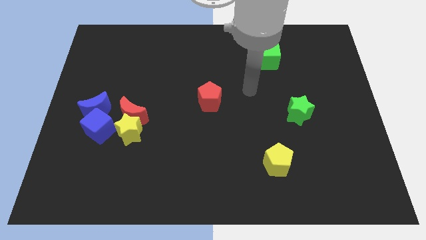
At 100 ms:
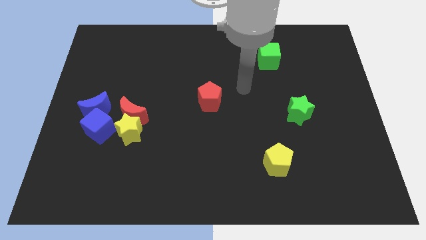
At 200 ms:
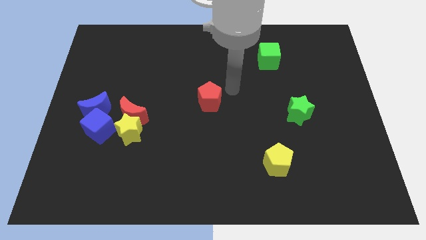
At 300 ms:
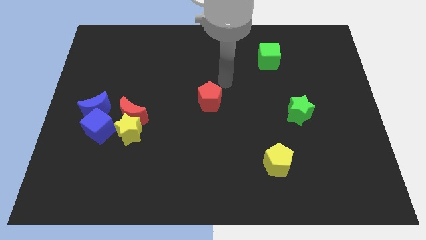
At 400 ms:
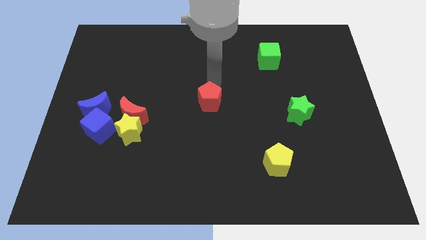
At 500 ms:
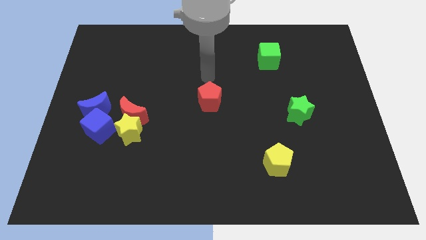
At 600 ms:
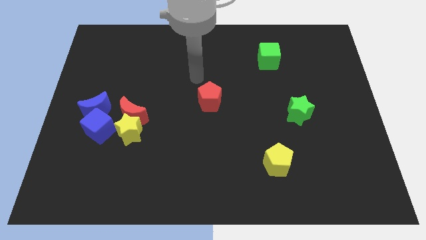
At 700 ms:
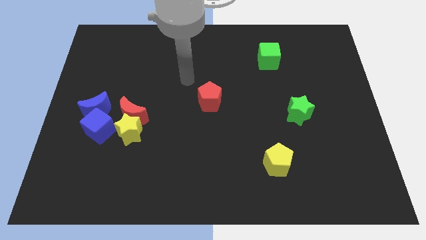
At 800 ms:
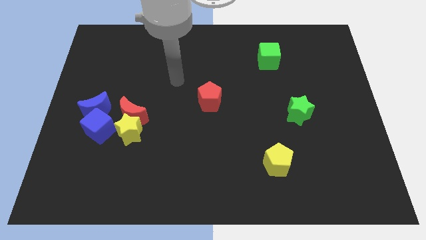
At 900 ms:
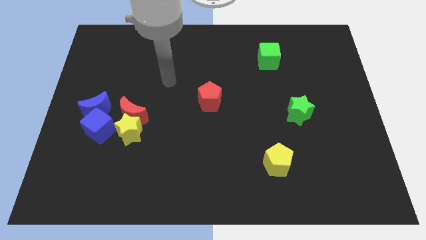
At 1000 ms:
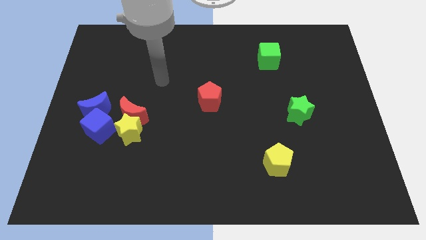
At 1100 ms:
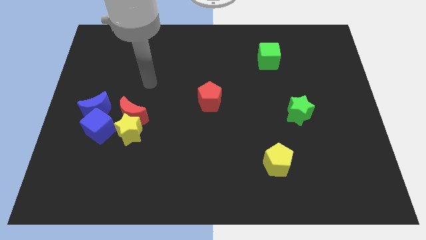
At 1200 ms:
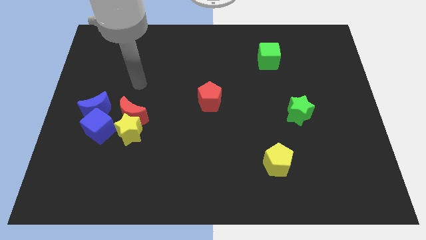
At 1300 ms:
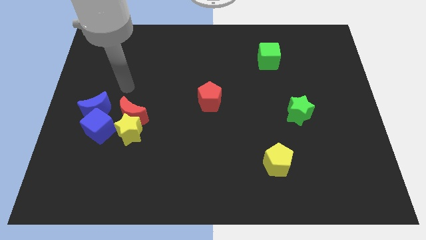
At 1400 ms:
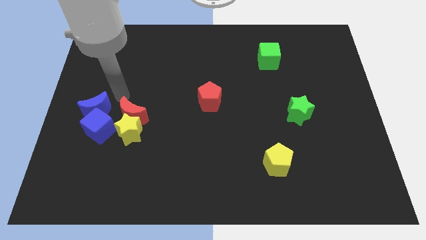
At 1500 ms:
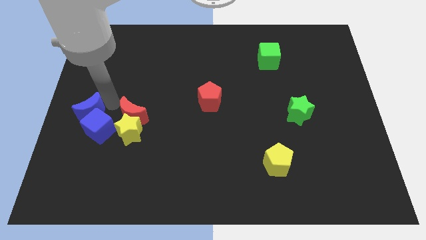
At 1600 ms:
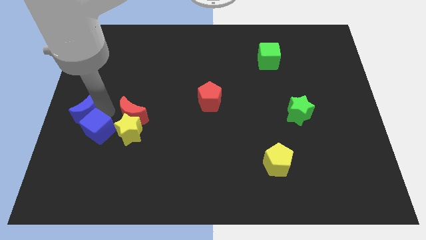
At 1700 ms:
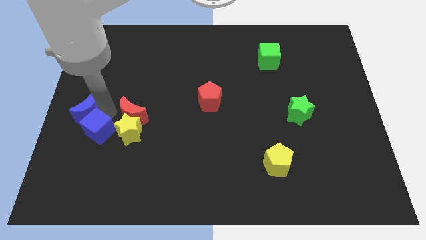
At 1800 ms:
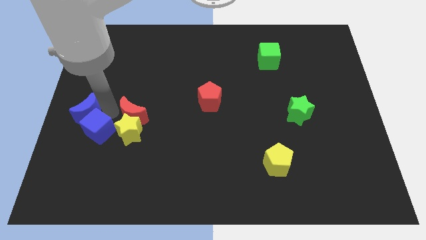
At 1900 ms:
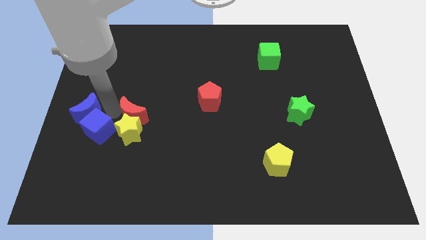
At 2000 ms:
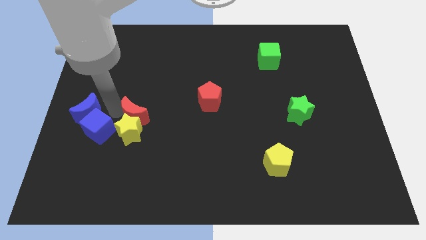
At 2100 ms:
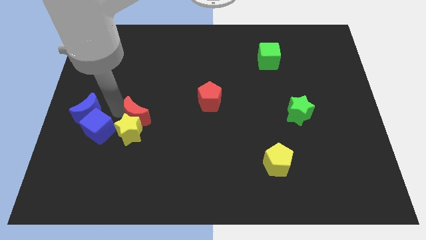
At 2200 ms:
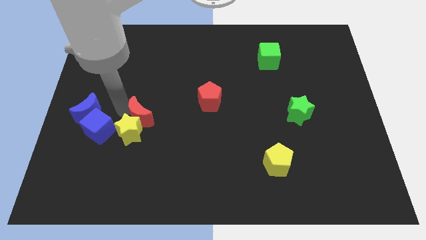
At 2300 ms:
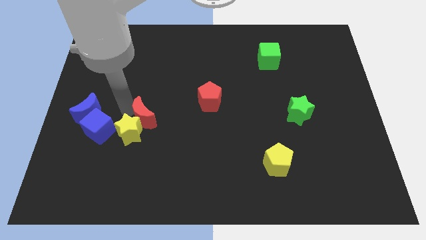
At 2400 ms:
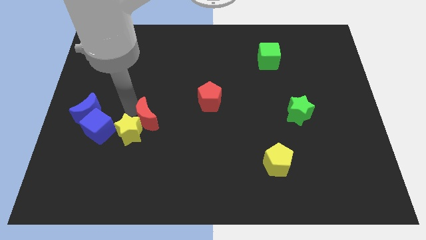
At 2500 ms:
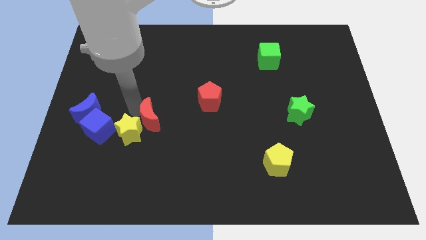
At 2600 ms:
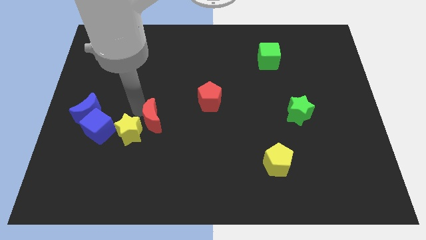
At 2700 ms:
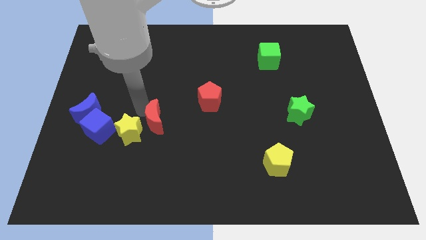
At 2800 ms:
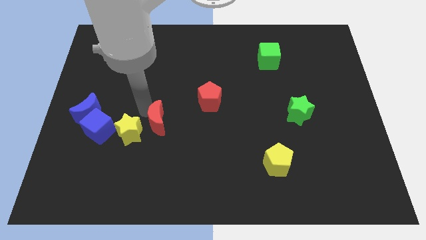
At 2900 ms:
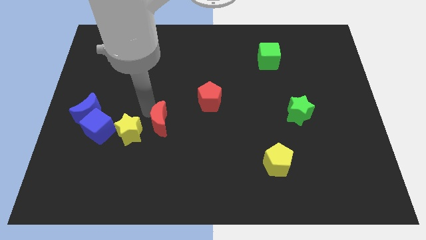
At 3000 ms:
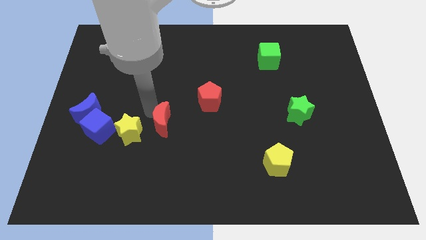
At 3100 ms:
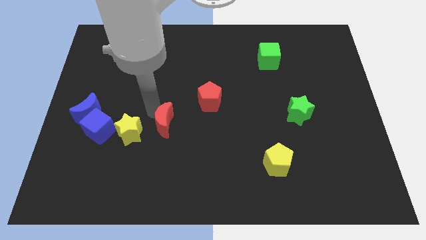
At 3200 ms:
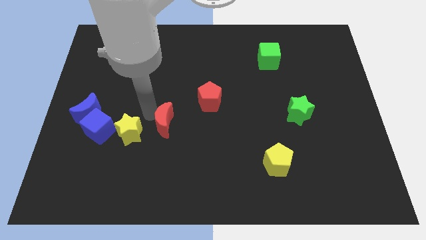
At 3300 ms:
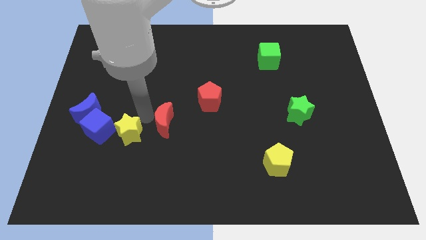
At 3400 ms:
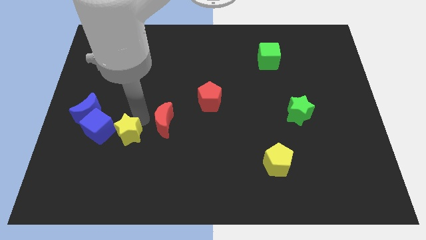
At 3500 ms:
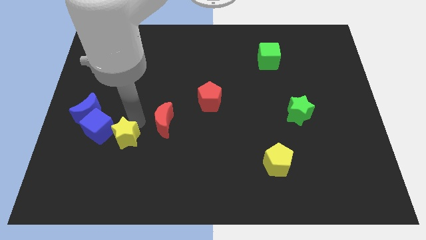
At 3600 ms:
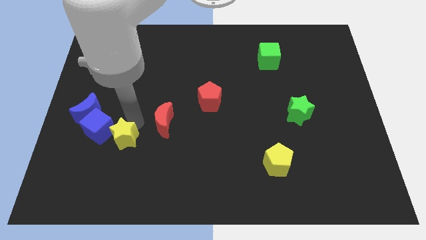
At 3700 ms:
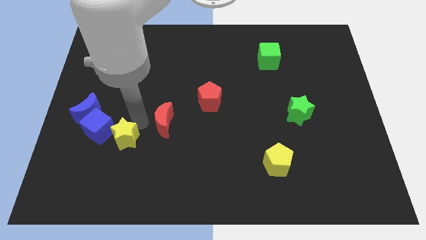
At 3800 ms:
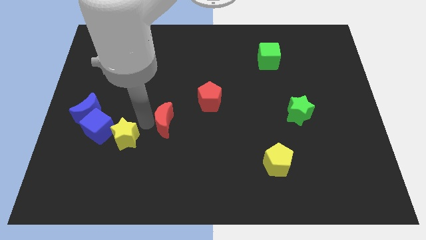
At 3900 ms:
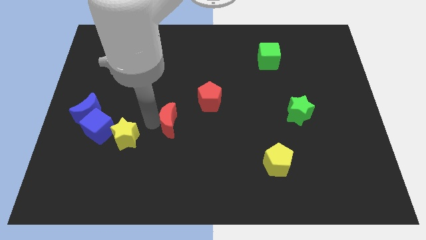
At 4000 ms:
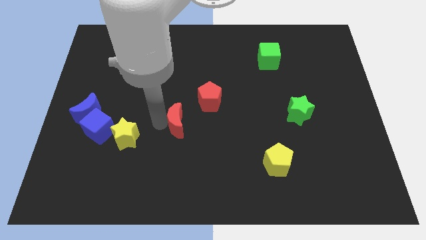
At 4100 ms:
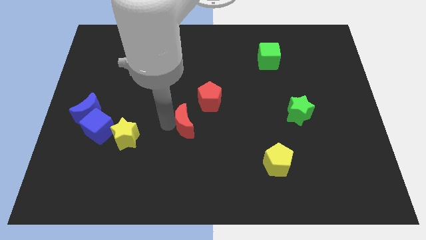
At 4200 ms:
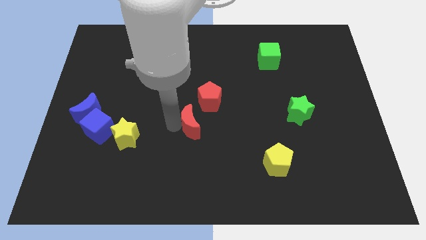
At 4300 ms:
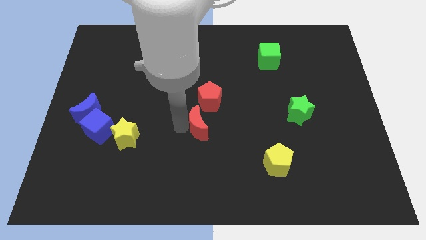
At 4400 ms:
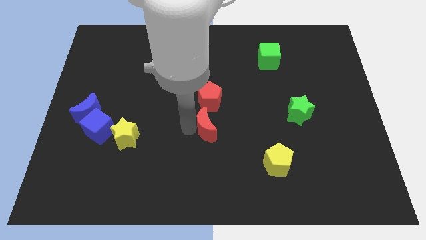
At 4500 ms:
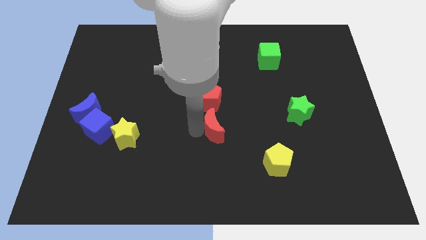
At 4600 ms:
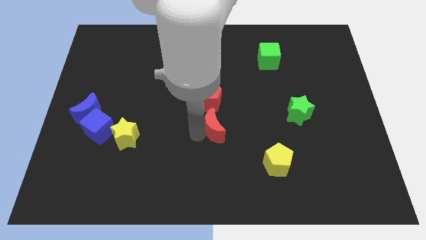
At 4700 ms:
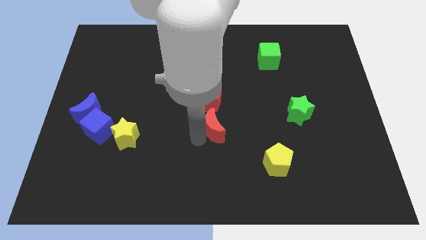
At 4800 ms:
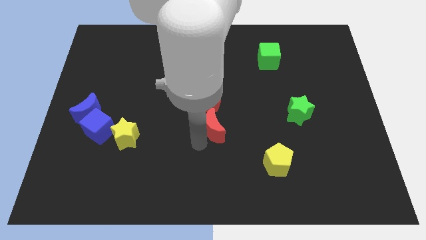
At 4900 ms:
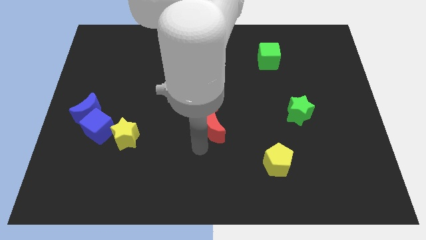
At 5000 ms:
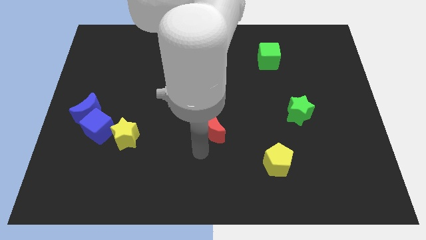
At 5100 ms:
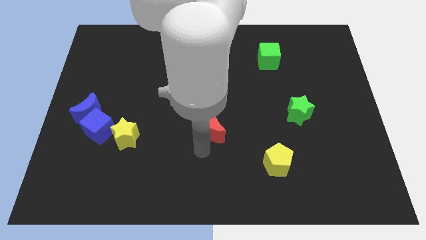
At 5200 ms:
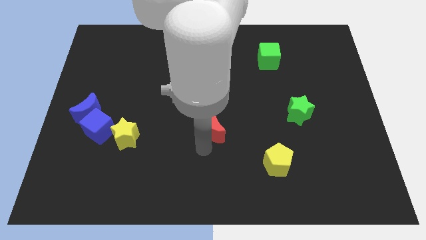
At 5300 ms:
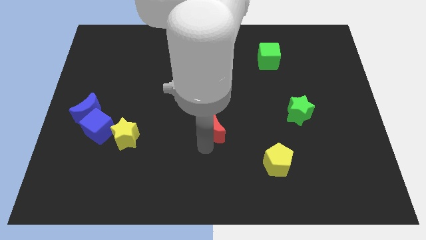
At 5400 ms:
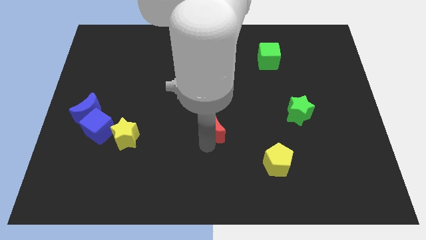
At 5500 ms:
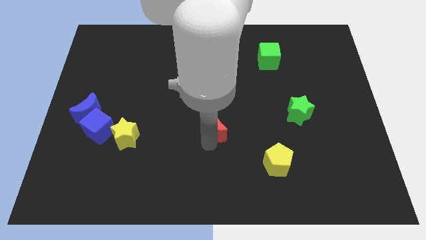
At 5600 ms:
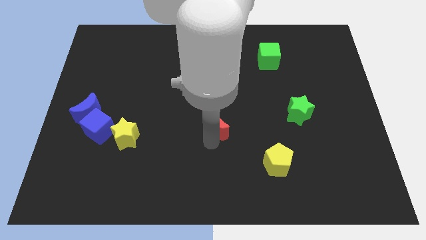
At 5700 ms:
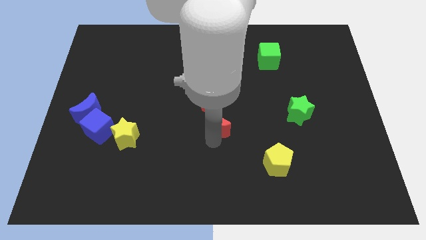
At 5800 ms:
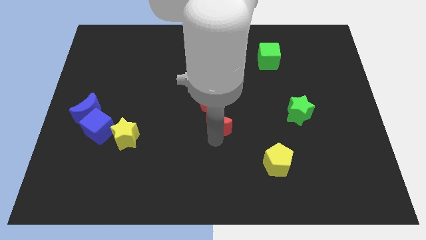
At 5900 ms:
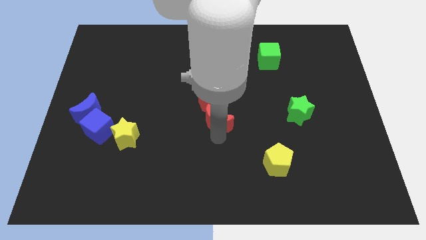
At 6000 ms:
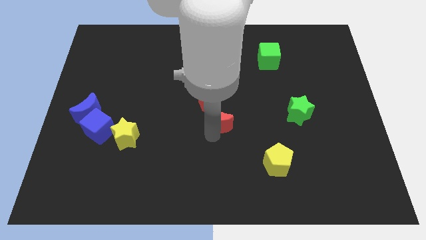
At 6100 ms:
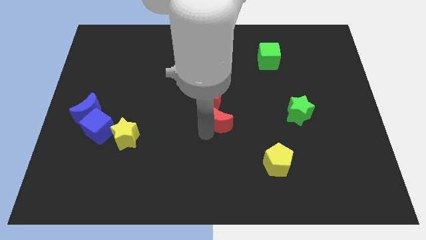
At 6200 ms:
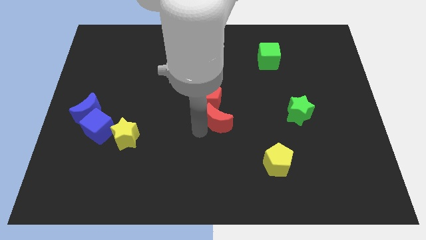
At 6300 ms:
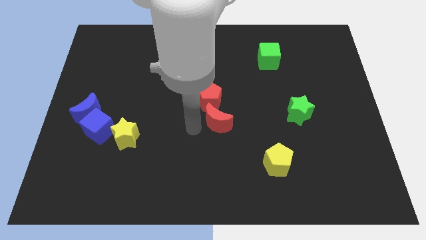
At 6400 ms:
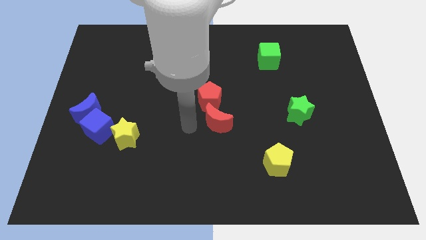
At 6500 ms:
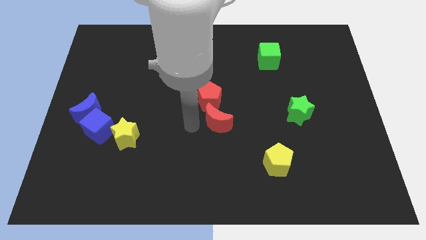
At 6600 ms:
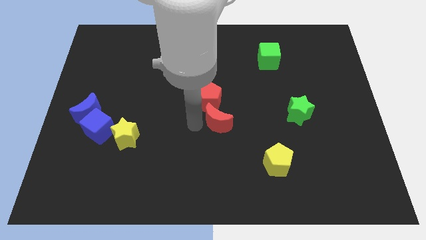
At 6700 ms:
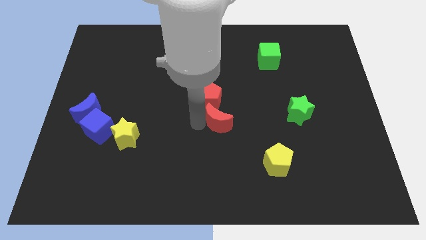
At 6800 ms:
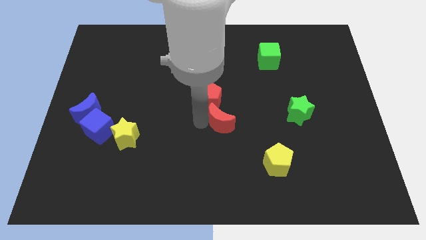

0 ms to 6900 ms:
move the red moon to the right

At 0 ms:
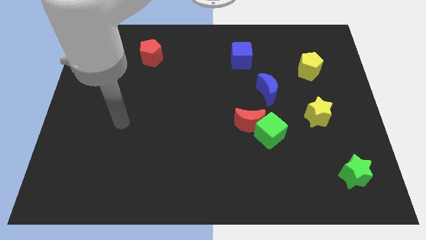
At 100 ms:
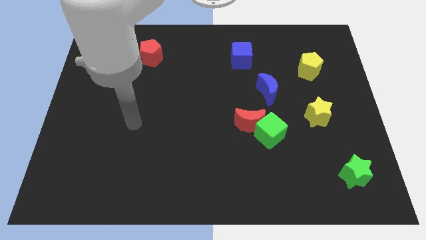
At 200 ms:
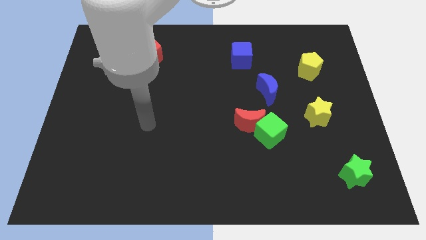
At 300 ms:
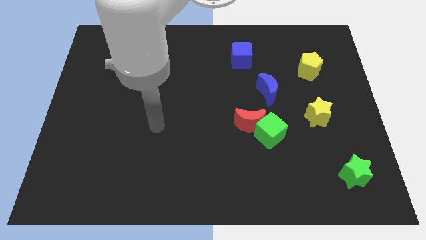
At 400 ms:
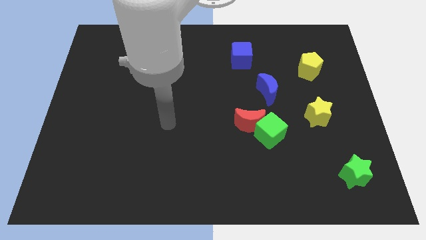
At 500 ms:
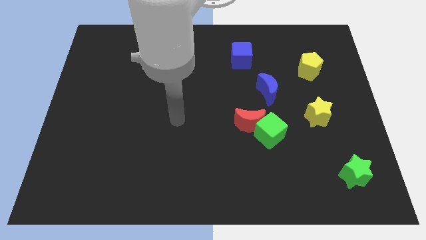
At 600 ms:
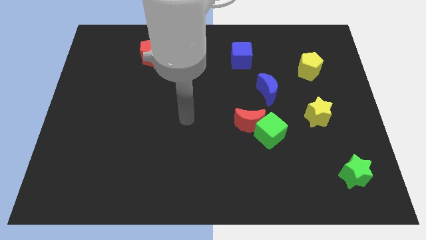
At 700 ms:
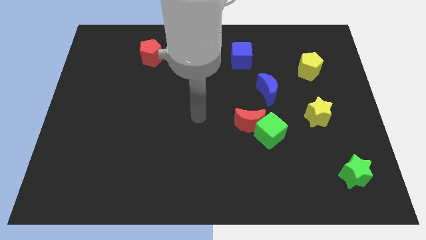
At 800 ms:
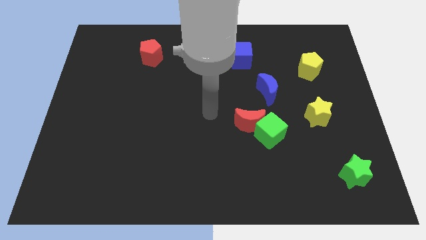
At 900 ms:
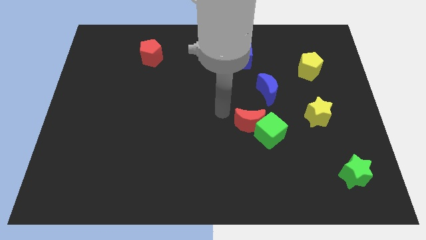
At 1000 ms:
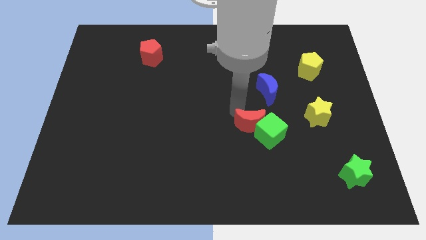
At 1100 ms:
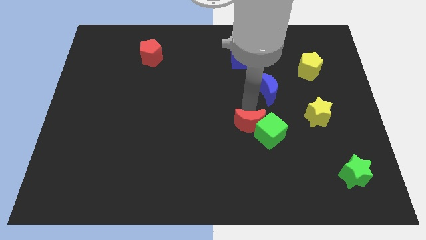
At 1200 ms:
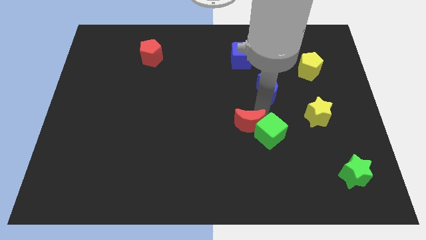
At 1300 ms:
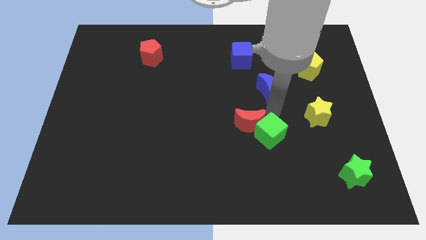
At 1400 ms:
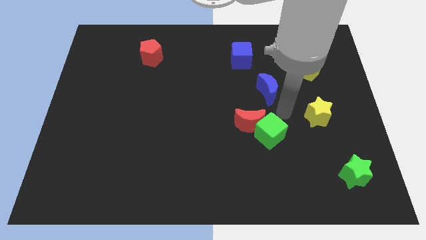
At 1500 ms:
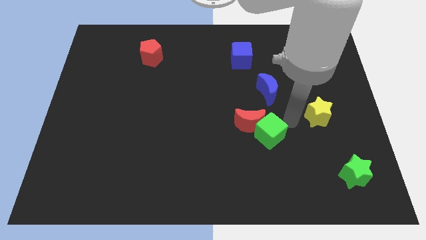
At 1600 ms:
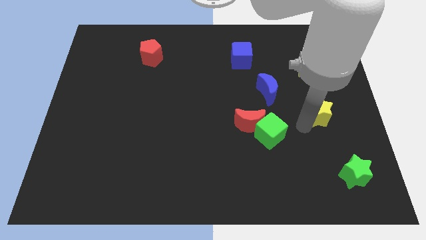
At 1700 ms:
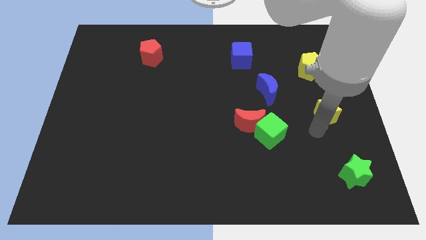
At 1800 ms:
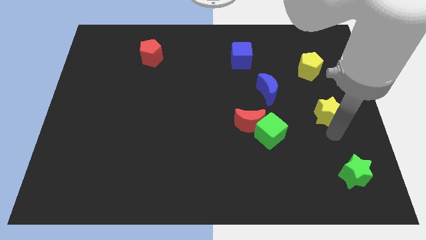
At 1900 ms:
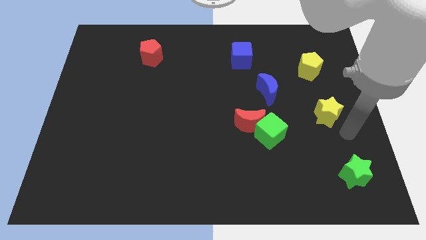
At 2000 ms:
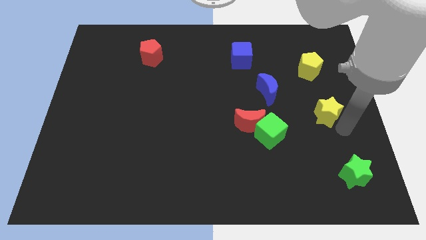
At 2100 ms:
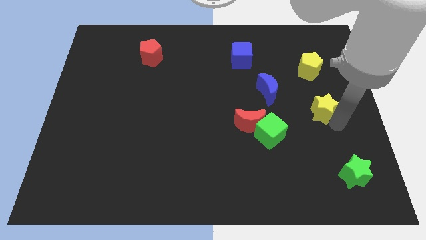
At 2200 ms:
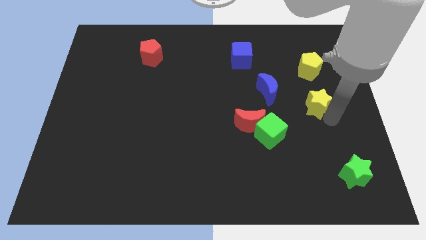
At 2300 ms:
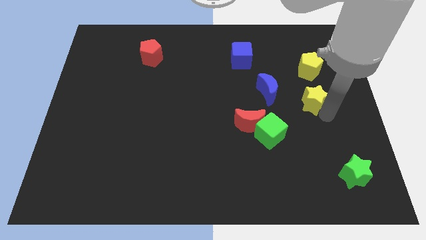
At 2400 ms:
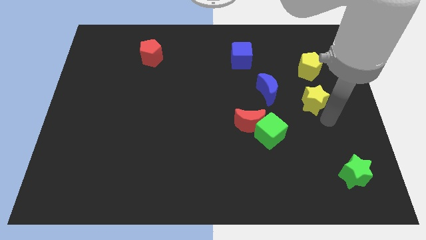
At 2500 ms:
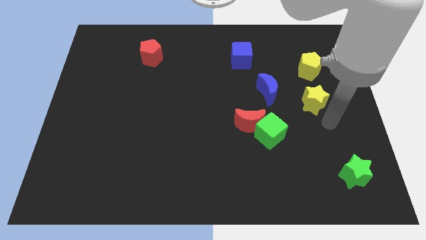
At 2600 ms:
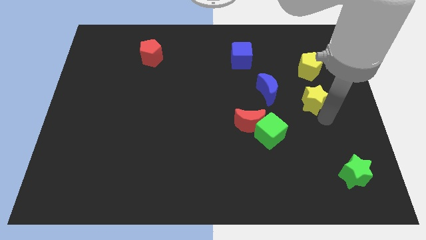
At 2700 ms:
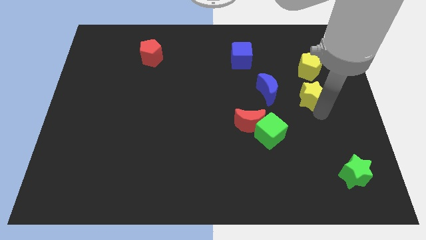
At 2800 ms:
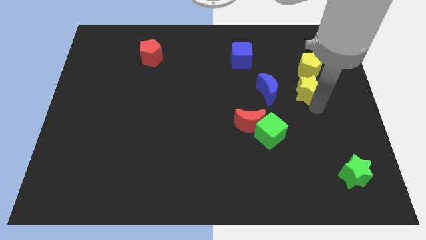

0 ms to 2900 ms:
push the yellow star upwards slightly
